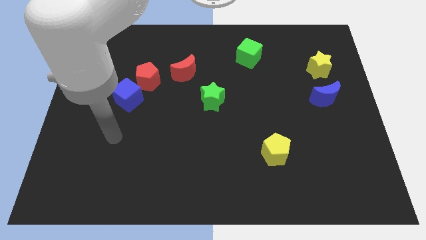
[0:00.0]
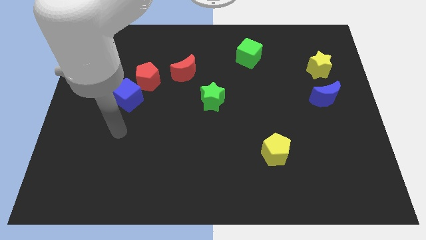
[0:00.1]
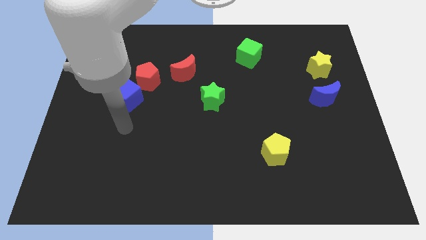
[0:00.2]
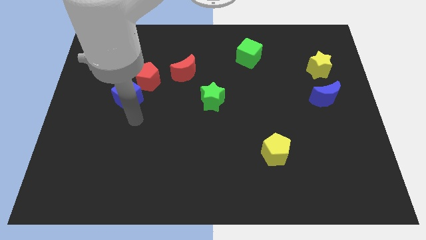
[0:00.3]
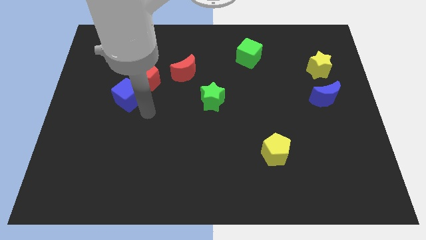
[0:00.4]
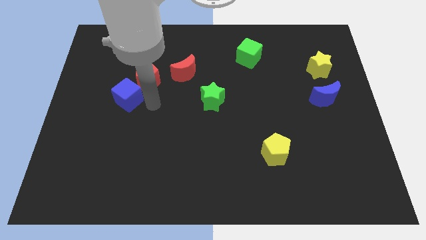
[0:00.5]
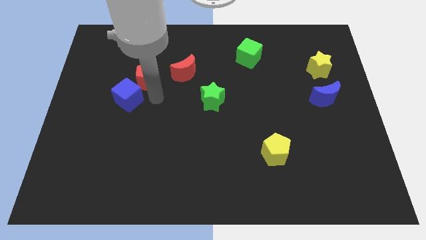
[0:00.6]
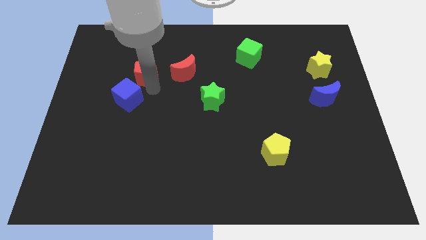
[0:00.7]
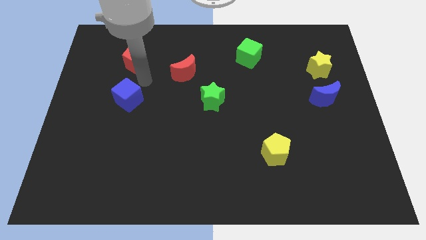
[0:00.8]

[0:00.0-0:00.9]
separate the blue cube from the red pentagon

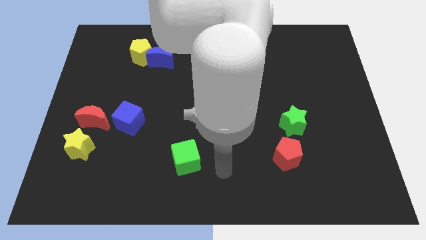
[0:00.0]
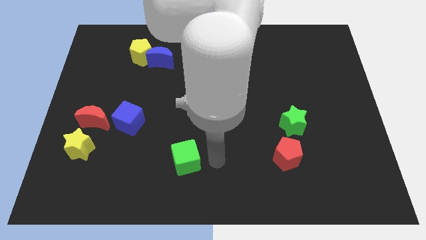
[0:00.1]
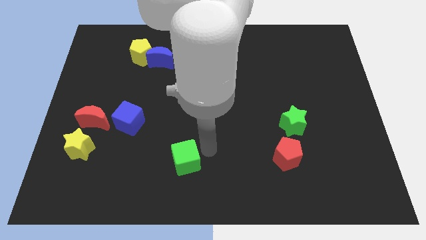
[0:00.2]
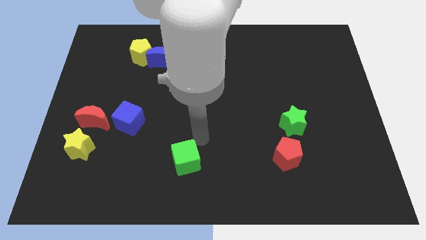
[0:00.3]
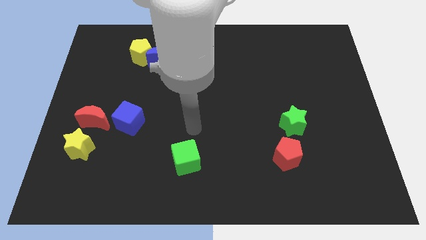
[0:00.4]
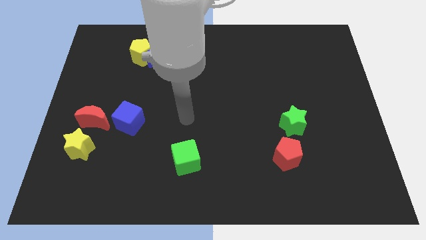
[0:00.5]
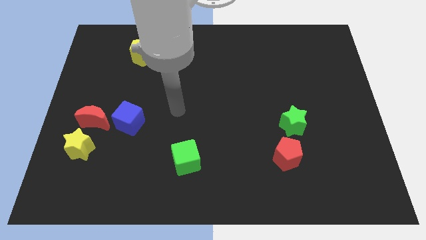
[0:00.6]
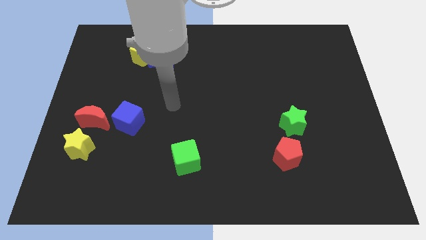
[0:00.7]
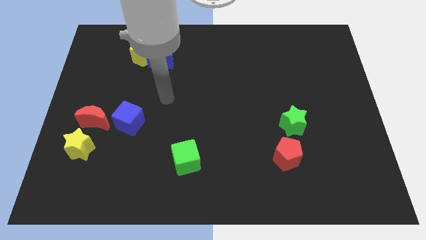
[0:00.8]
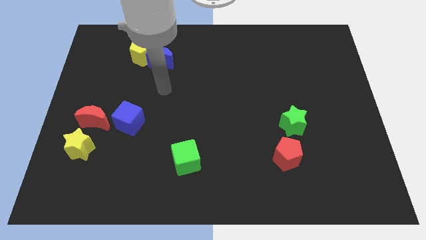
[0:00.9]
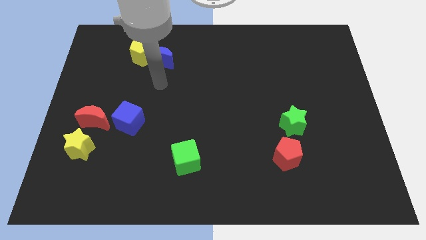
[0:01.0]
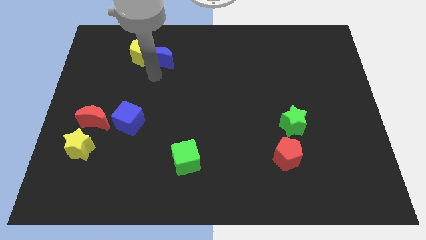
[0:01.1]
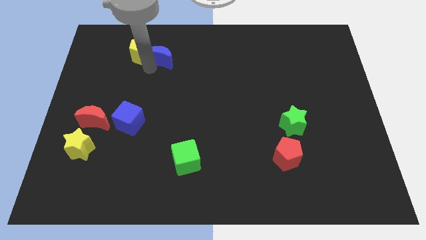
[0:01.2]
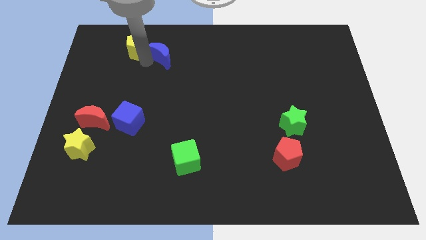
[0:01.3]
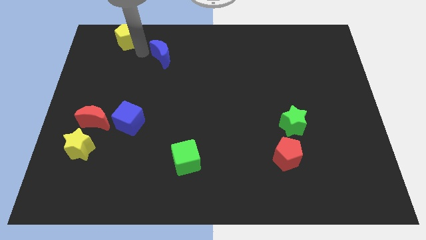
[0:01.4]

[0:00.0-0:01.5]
move the blue moon away from the yellow pentagon

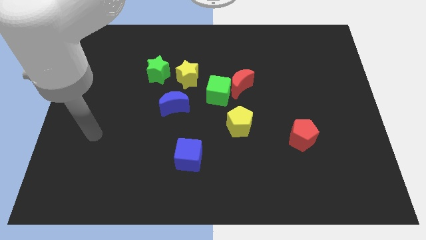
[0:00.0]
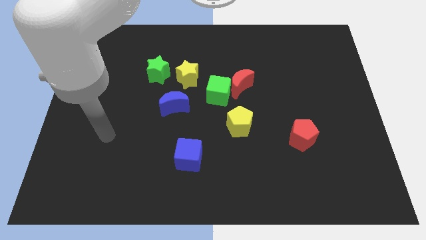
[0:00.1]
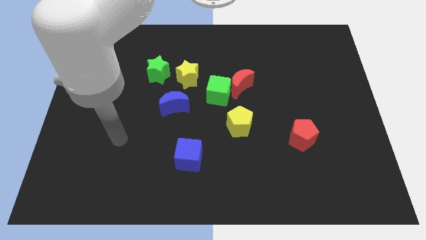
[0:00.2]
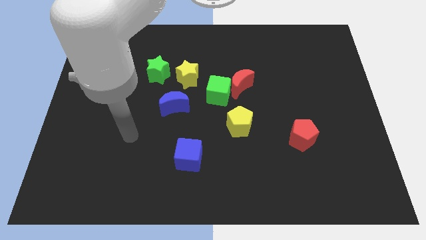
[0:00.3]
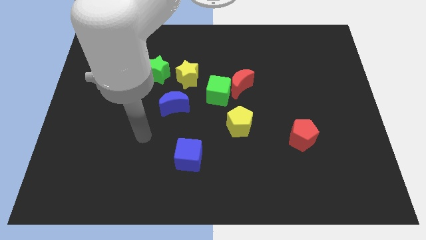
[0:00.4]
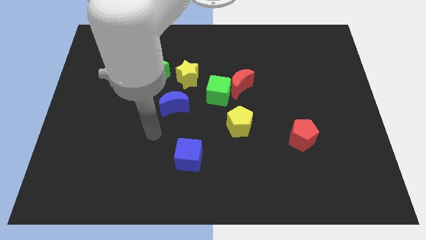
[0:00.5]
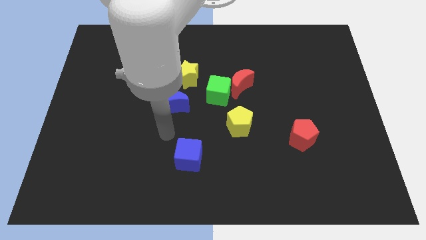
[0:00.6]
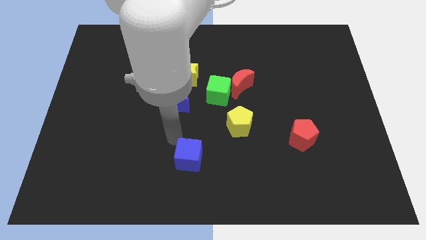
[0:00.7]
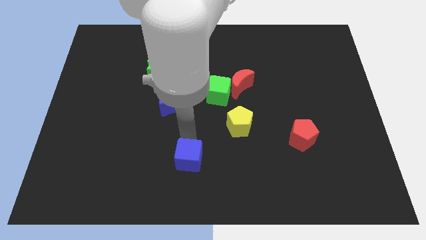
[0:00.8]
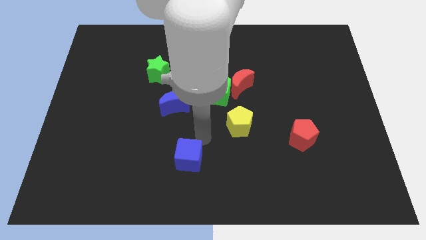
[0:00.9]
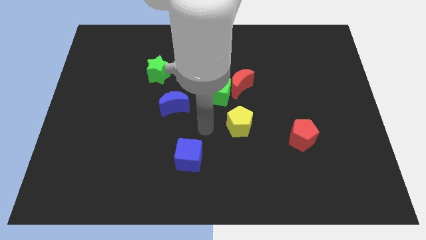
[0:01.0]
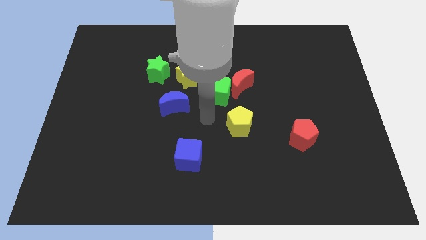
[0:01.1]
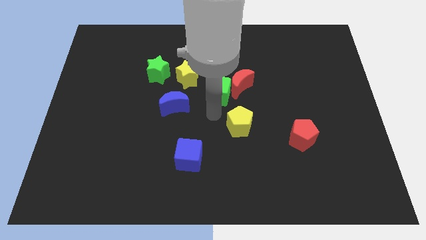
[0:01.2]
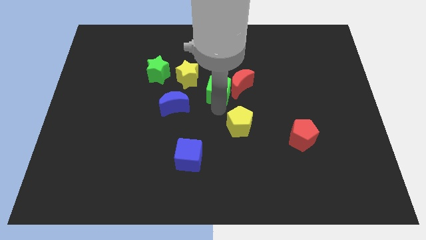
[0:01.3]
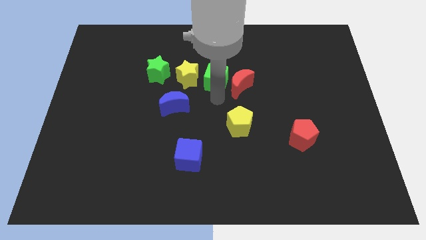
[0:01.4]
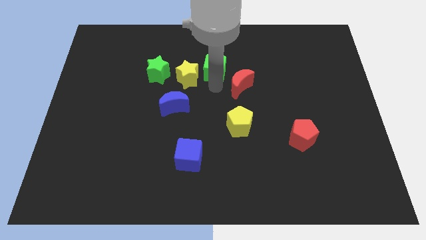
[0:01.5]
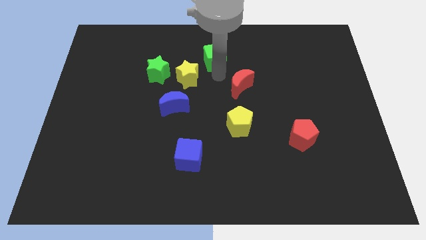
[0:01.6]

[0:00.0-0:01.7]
separate the red moon from the green cube

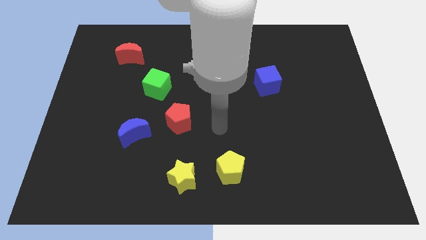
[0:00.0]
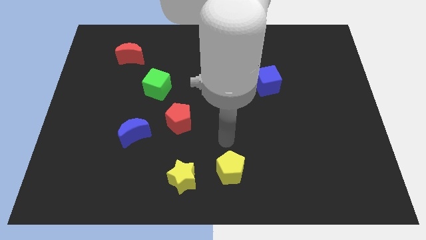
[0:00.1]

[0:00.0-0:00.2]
pull the yellow star apart from the yellow pentagon

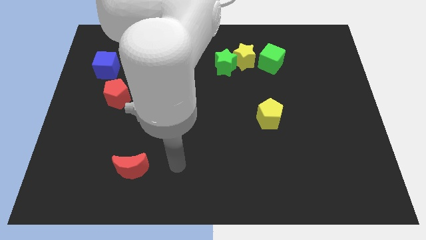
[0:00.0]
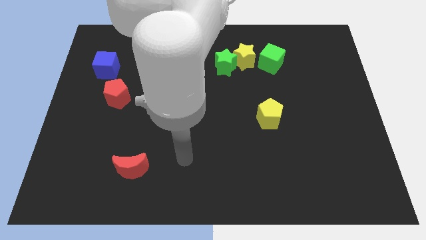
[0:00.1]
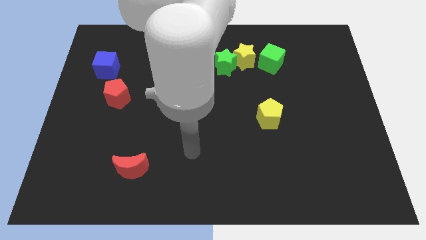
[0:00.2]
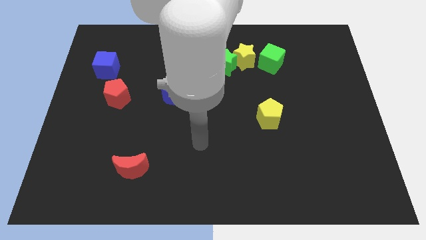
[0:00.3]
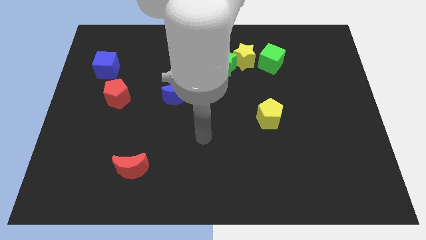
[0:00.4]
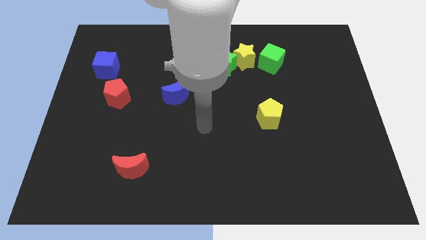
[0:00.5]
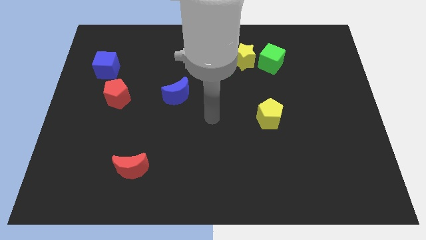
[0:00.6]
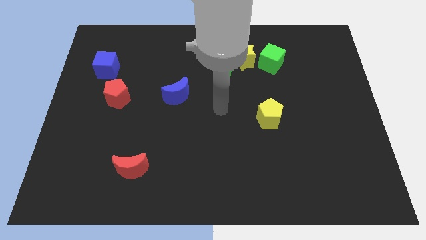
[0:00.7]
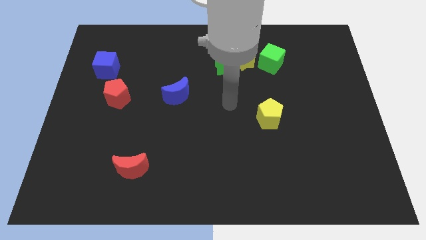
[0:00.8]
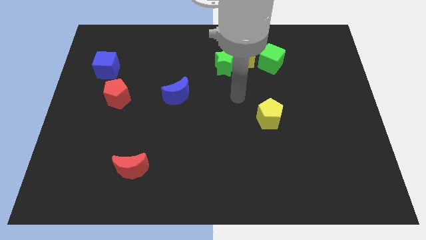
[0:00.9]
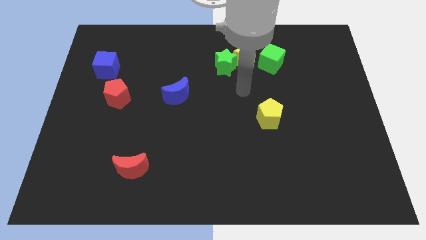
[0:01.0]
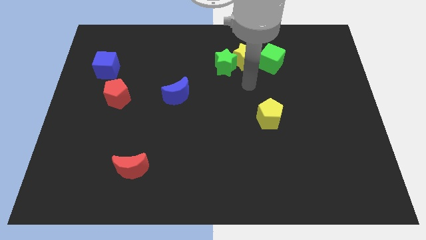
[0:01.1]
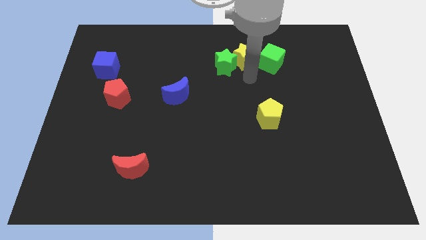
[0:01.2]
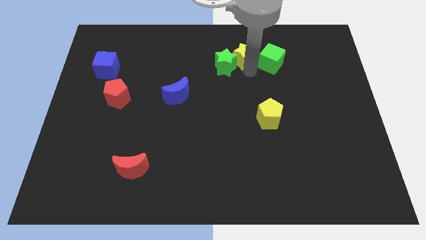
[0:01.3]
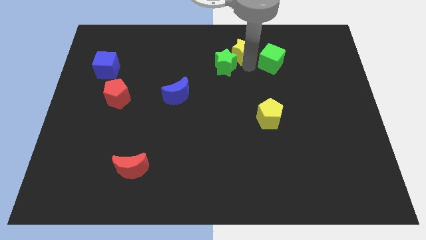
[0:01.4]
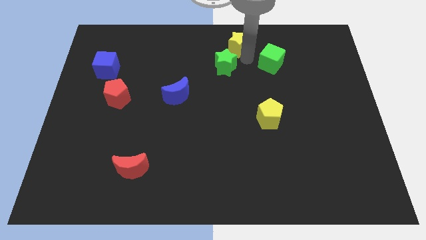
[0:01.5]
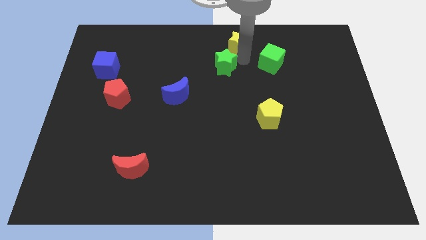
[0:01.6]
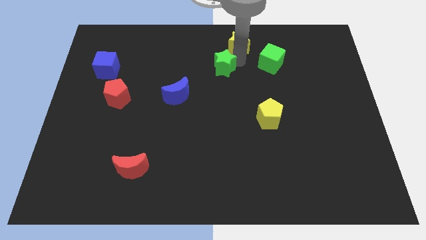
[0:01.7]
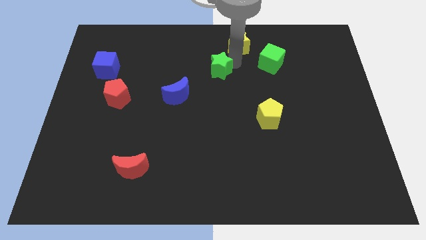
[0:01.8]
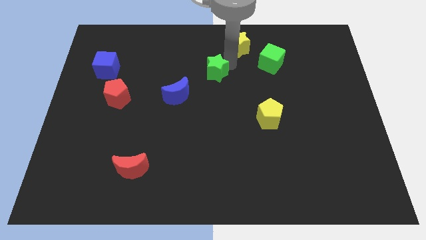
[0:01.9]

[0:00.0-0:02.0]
separate the green star from the yellow star

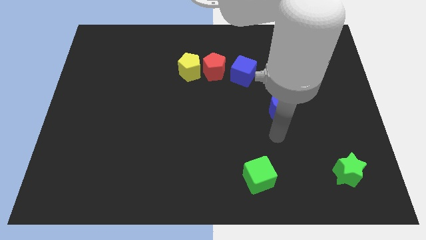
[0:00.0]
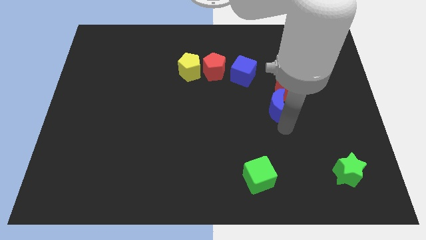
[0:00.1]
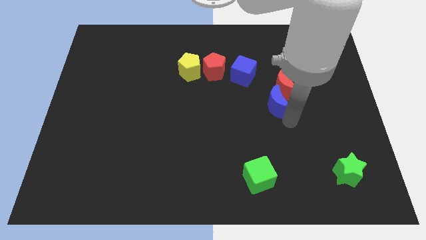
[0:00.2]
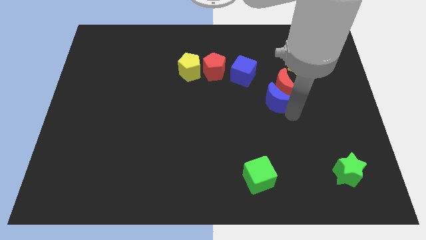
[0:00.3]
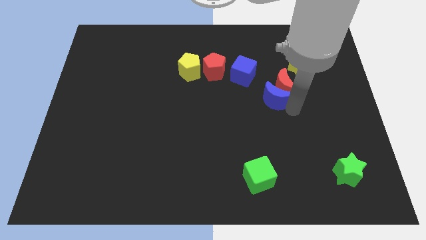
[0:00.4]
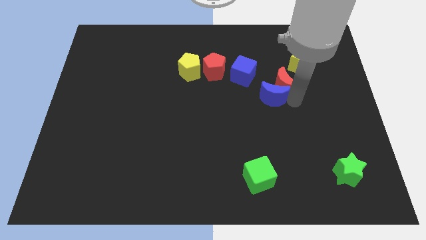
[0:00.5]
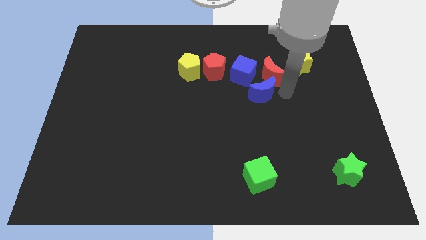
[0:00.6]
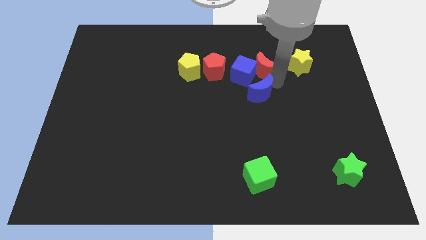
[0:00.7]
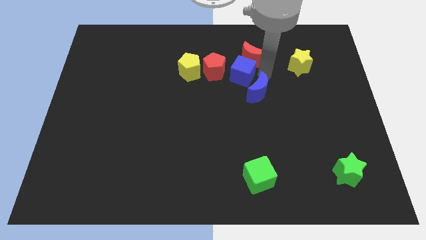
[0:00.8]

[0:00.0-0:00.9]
move the blue moon away from the red moon

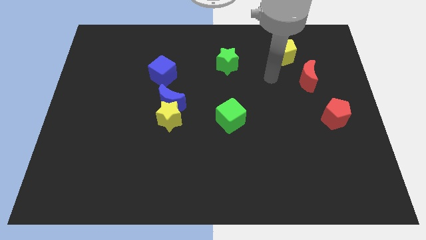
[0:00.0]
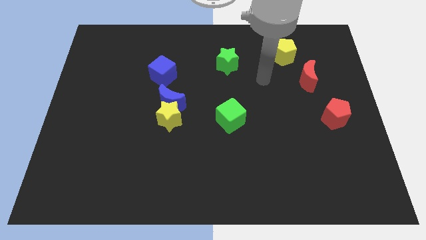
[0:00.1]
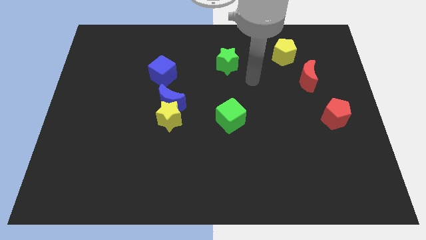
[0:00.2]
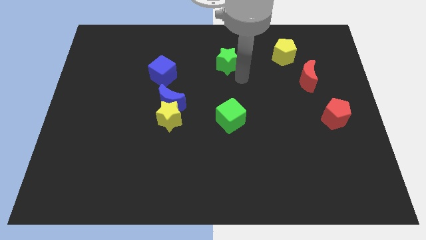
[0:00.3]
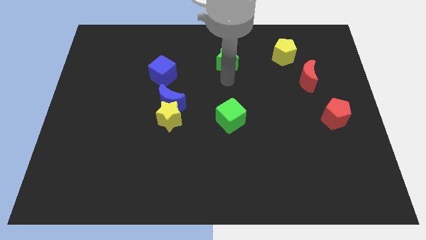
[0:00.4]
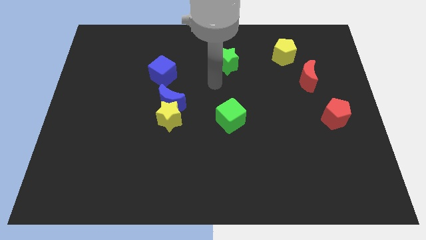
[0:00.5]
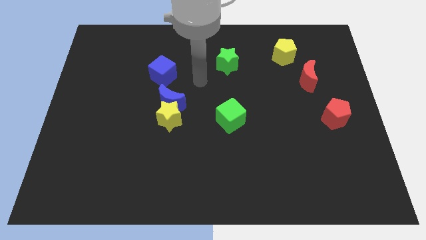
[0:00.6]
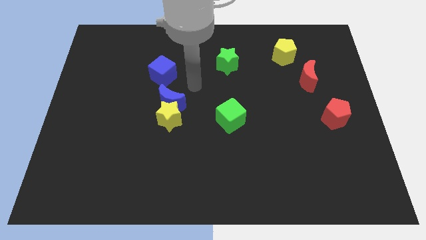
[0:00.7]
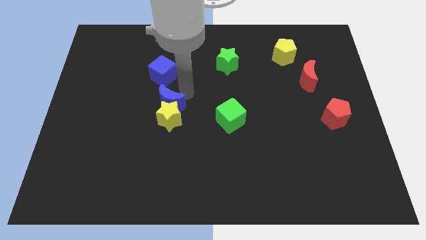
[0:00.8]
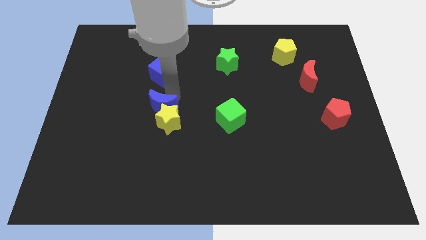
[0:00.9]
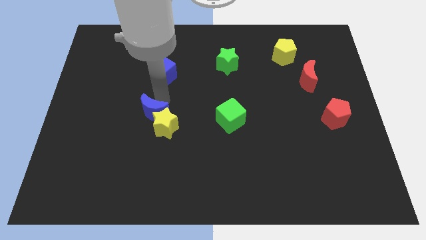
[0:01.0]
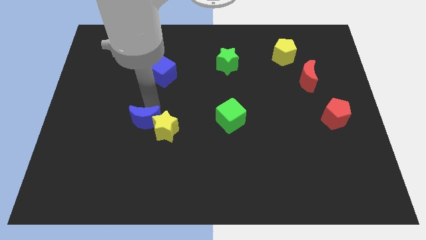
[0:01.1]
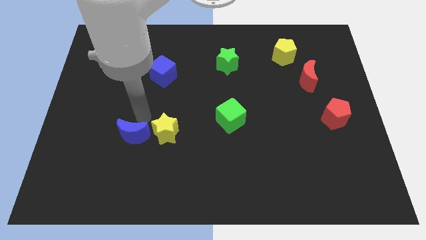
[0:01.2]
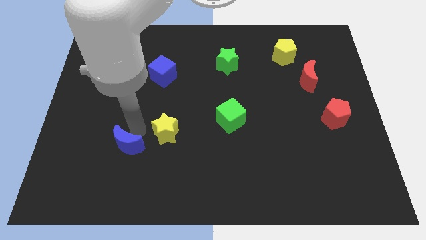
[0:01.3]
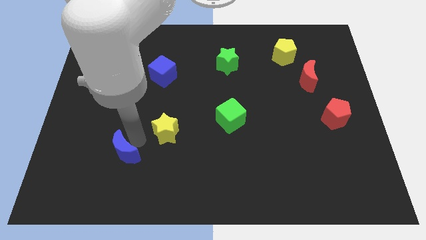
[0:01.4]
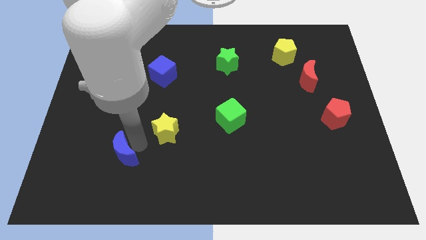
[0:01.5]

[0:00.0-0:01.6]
pull the yellow star apart from the blue moon

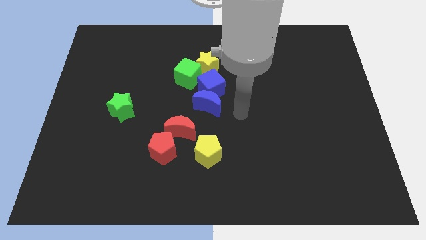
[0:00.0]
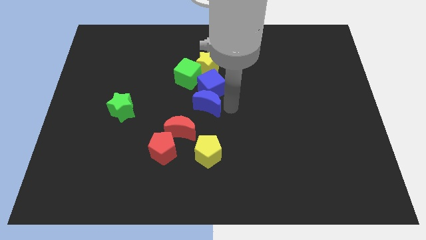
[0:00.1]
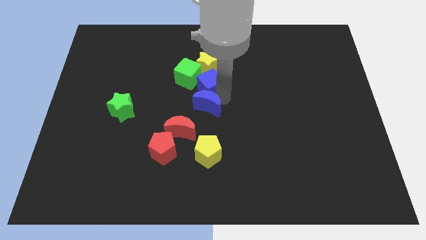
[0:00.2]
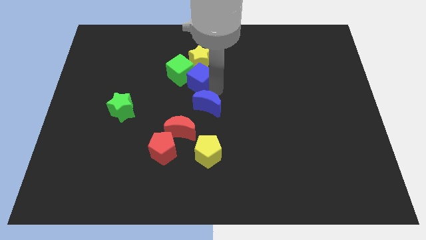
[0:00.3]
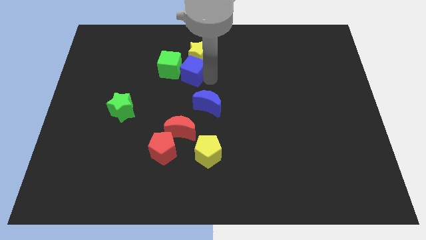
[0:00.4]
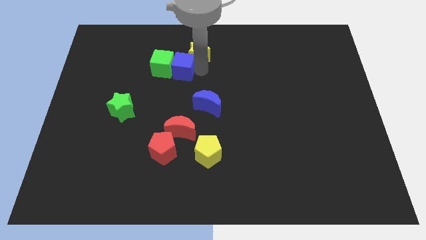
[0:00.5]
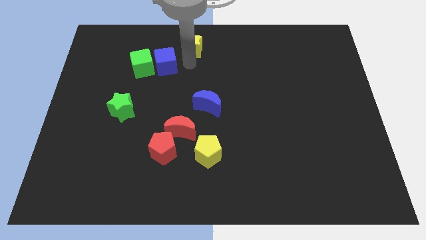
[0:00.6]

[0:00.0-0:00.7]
pull the green cube apart from the yellow star and blue cube
